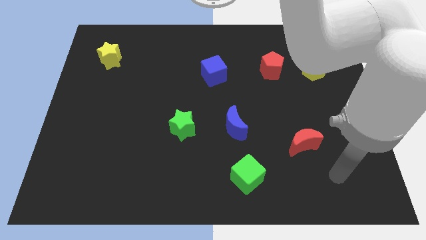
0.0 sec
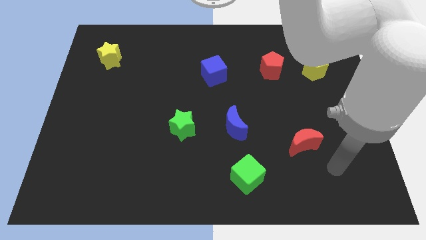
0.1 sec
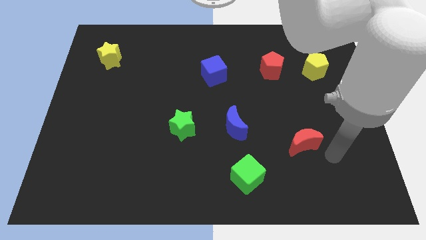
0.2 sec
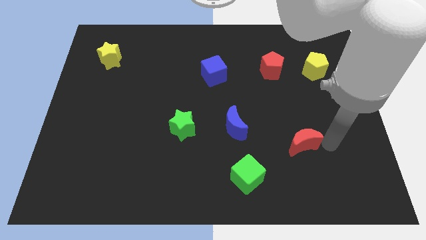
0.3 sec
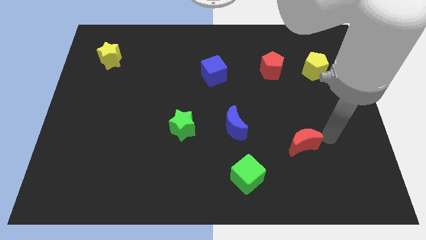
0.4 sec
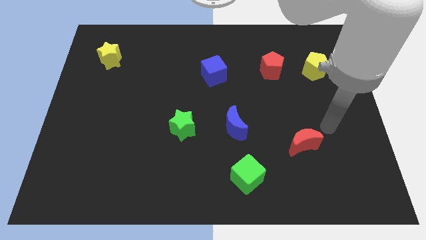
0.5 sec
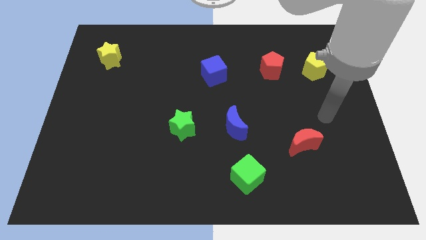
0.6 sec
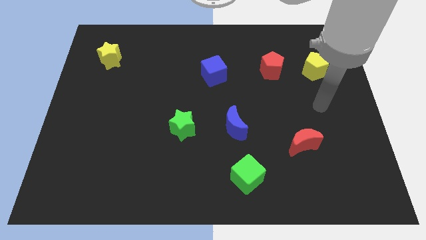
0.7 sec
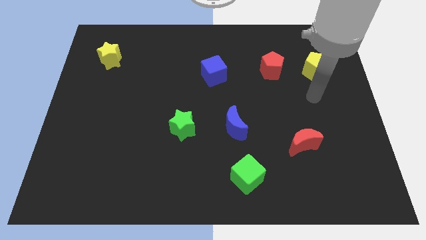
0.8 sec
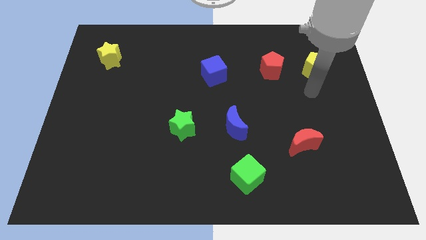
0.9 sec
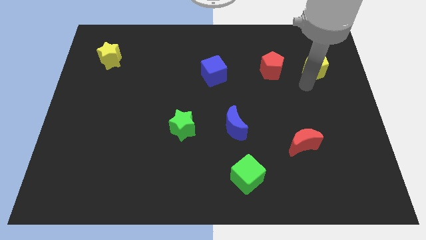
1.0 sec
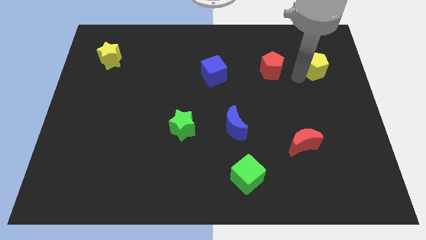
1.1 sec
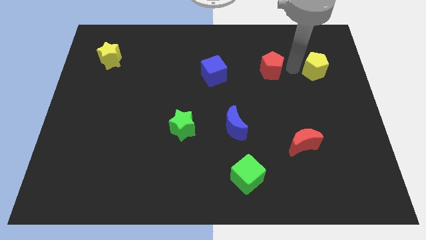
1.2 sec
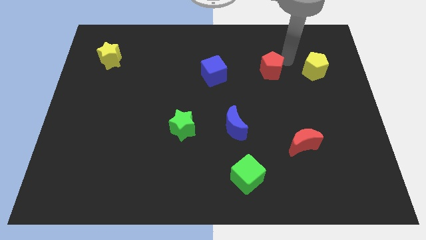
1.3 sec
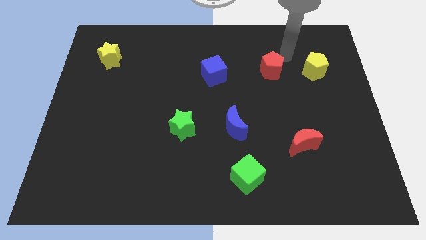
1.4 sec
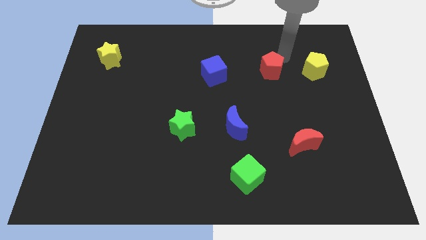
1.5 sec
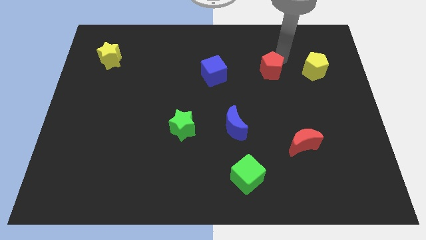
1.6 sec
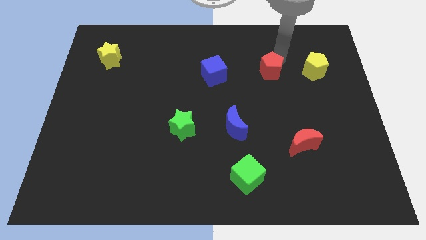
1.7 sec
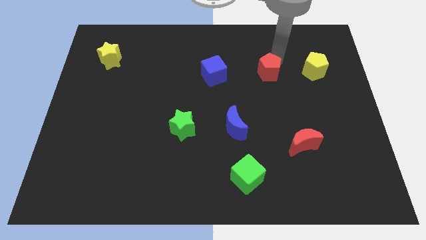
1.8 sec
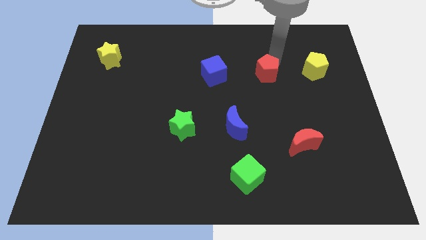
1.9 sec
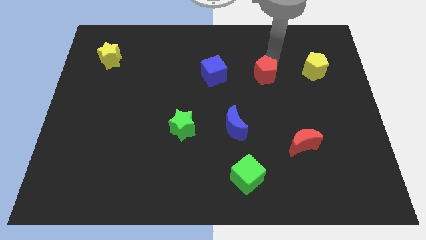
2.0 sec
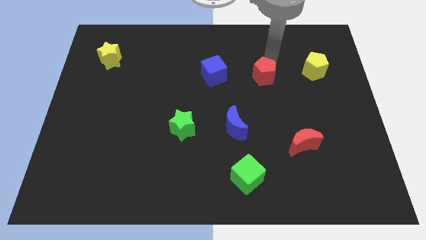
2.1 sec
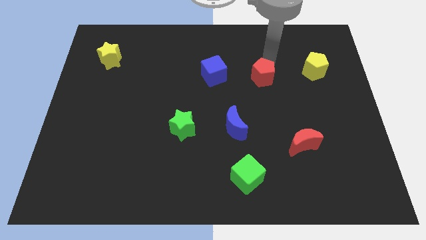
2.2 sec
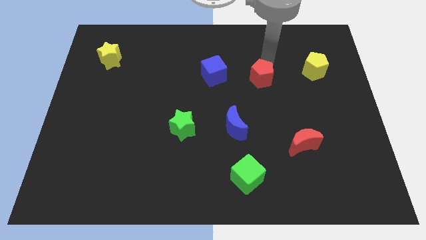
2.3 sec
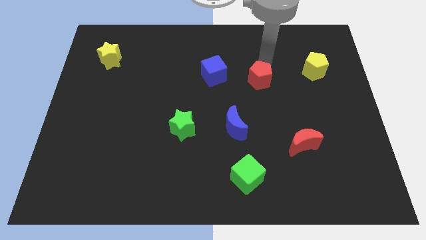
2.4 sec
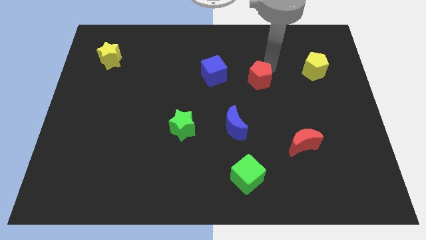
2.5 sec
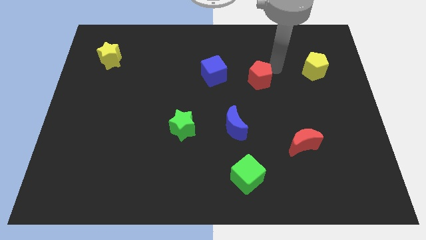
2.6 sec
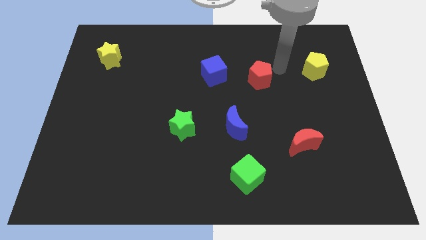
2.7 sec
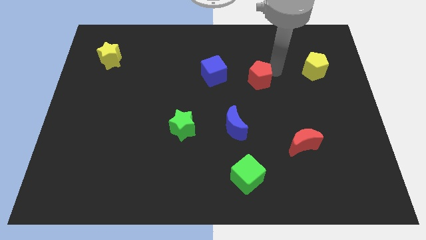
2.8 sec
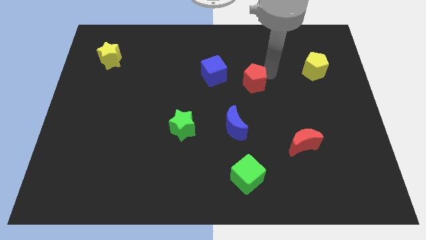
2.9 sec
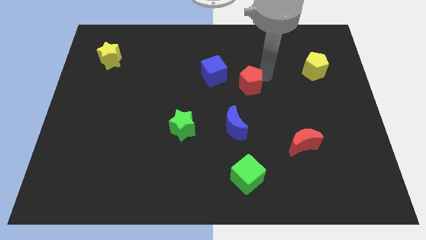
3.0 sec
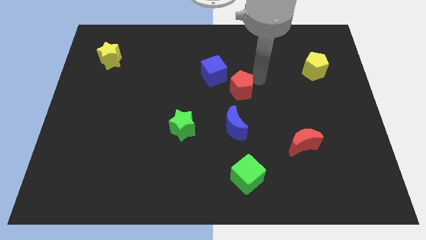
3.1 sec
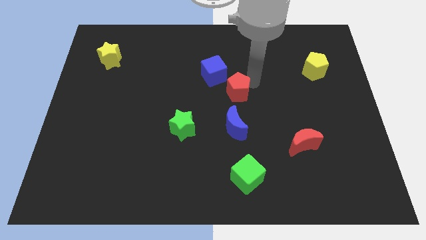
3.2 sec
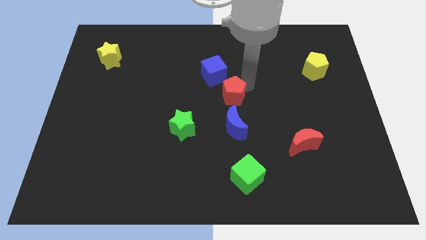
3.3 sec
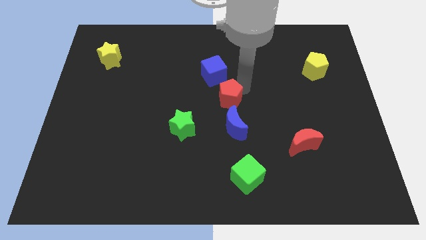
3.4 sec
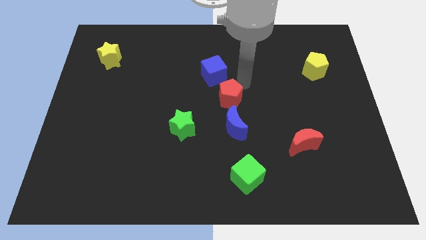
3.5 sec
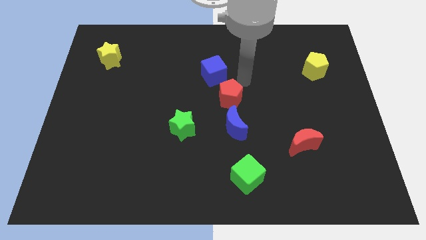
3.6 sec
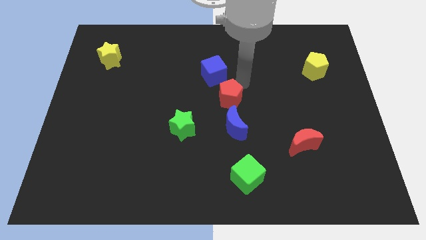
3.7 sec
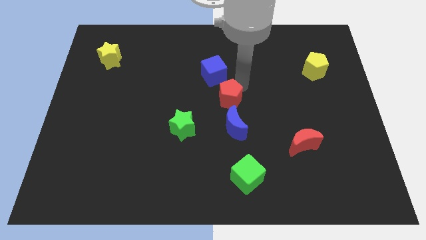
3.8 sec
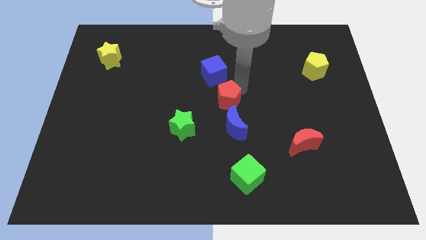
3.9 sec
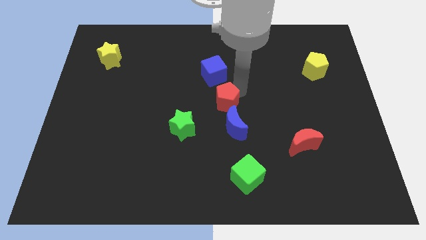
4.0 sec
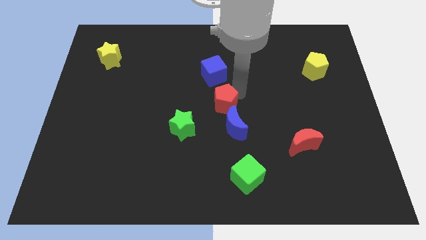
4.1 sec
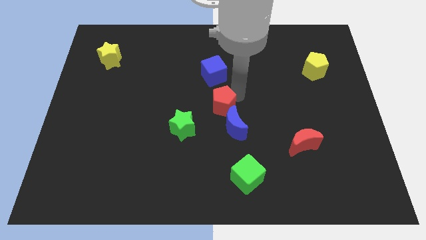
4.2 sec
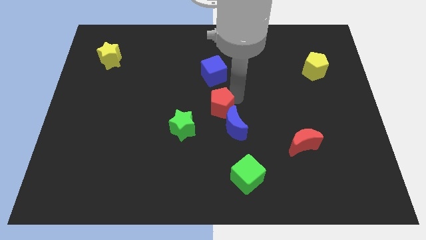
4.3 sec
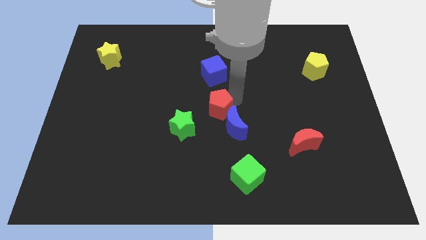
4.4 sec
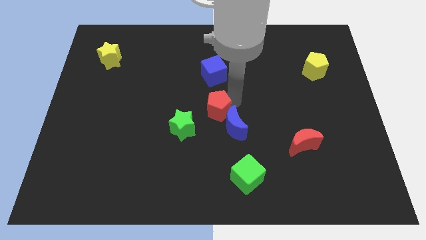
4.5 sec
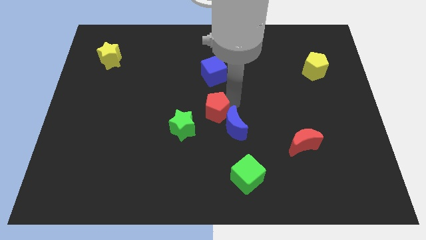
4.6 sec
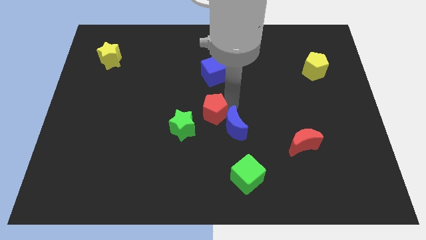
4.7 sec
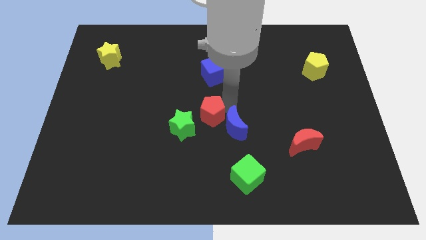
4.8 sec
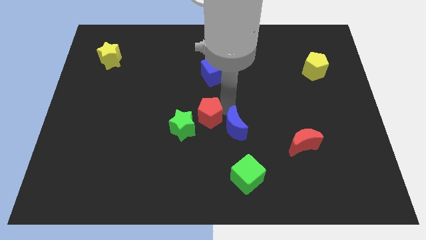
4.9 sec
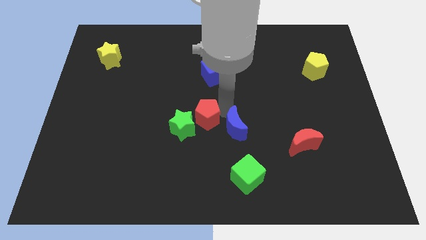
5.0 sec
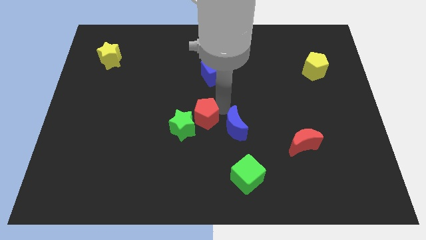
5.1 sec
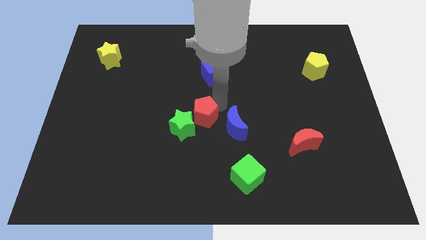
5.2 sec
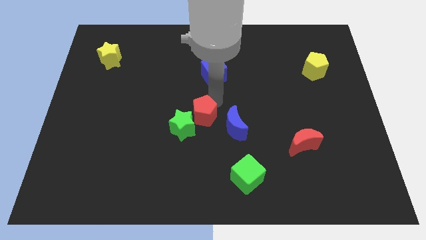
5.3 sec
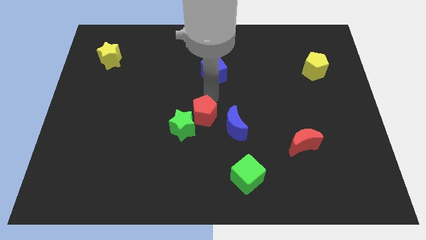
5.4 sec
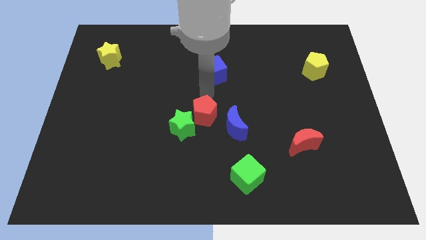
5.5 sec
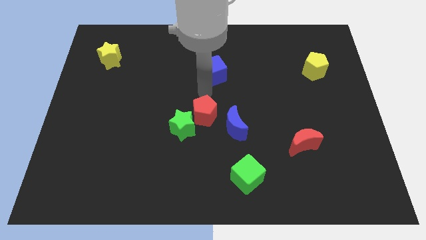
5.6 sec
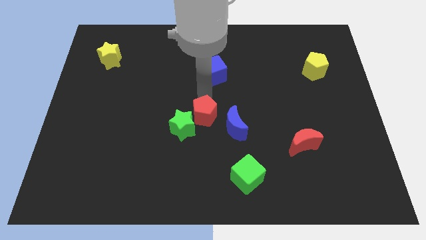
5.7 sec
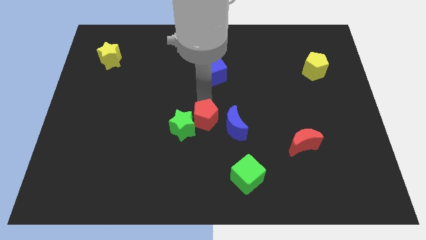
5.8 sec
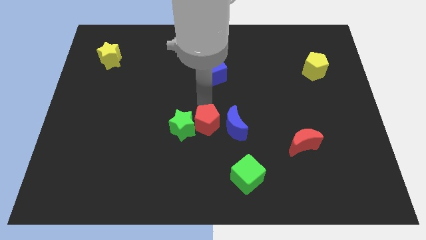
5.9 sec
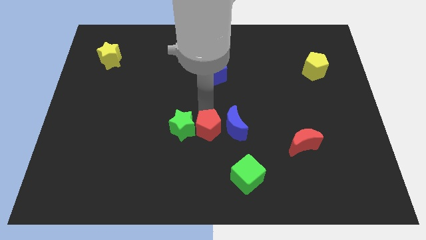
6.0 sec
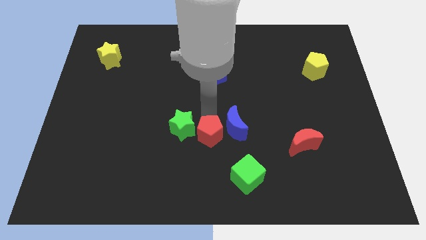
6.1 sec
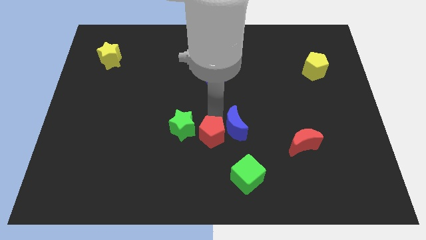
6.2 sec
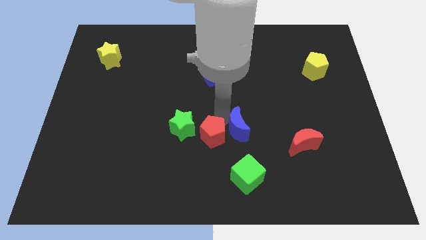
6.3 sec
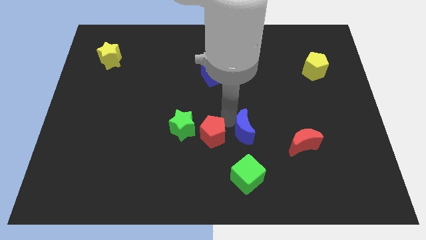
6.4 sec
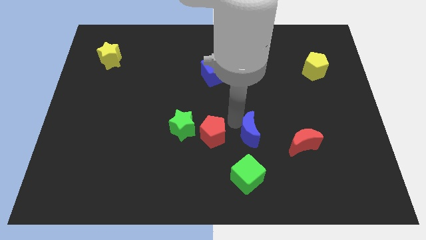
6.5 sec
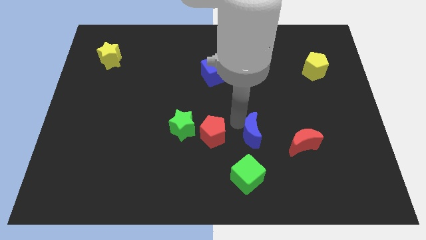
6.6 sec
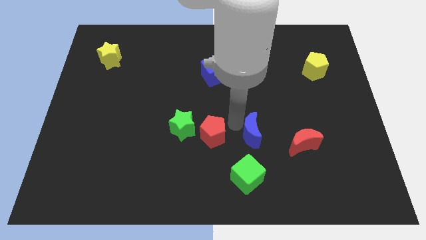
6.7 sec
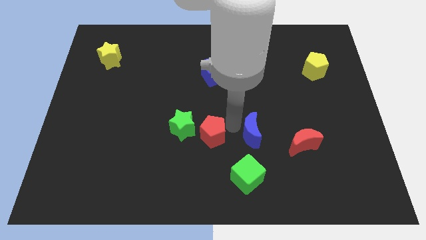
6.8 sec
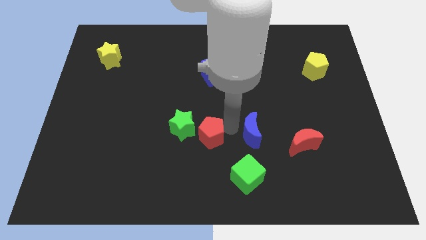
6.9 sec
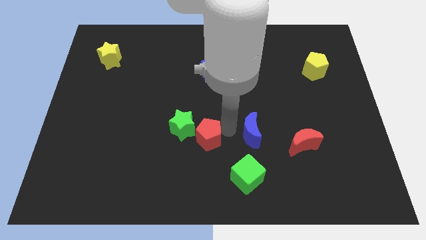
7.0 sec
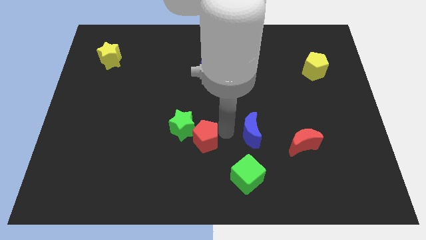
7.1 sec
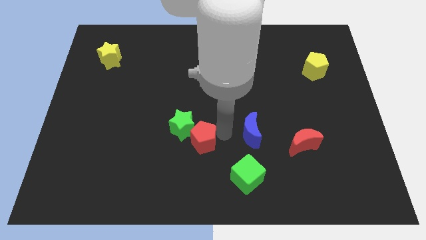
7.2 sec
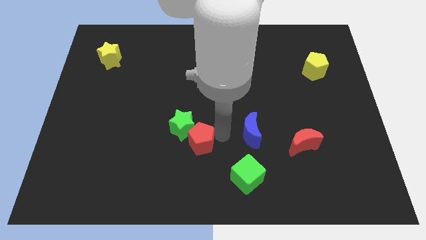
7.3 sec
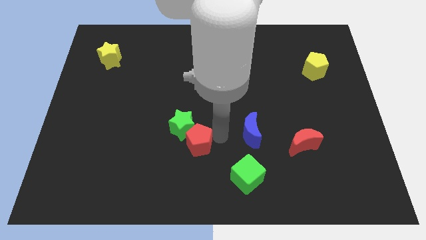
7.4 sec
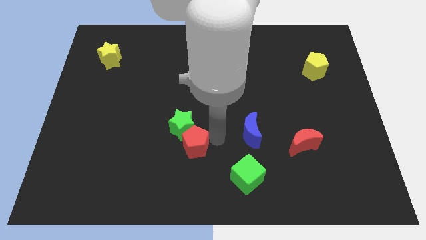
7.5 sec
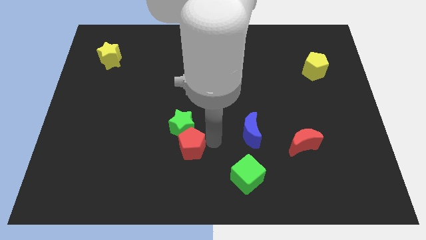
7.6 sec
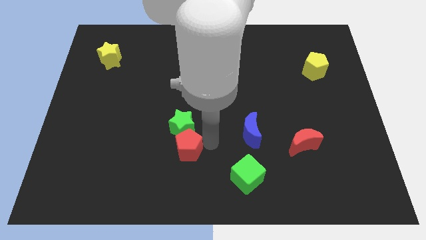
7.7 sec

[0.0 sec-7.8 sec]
put the red pentagon to the bottom left side of the green star
